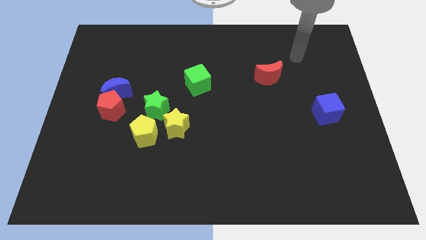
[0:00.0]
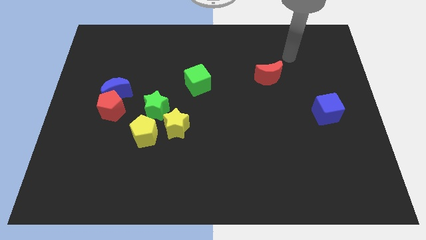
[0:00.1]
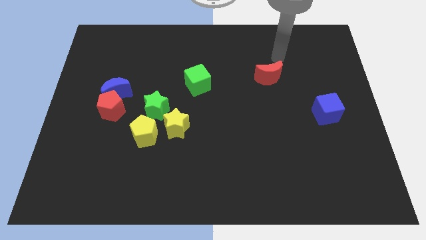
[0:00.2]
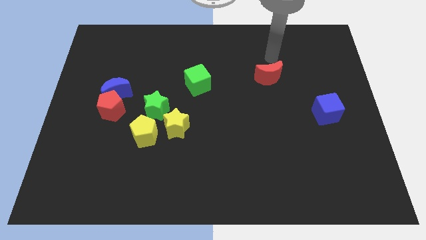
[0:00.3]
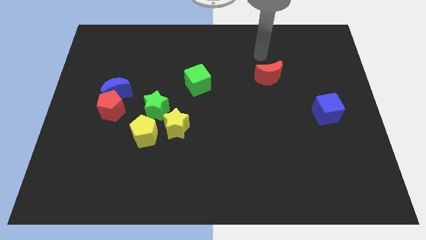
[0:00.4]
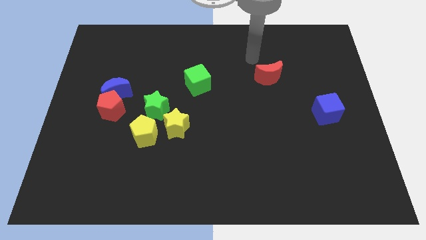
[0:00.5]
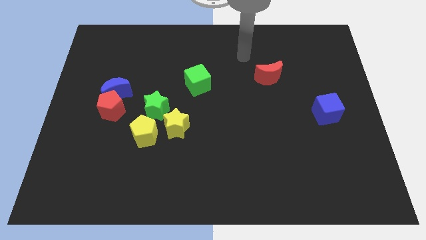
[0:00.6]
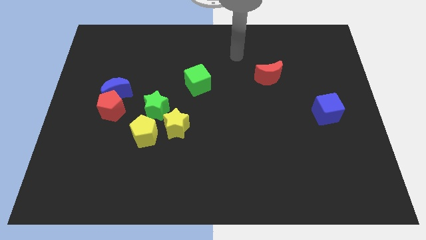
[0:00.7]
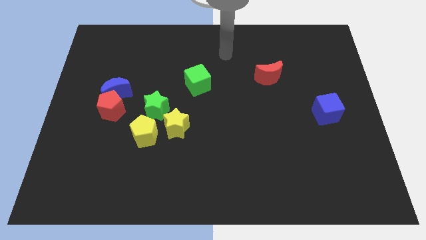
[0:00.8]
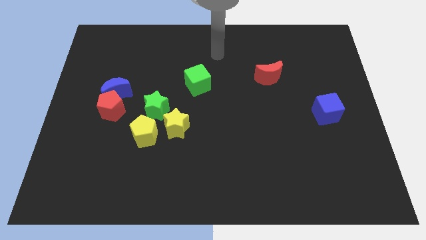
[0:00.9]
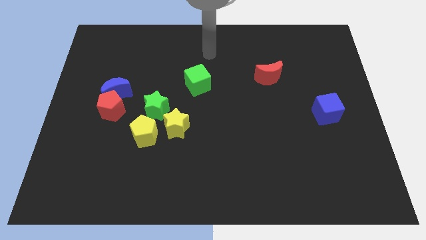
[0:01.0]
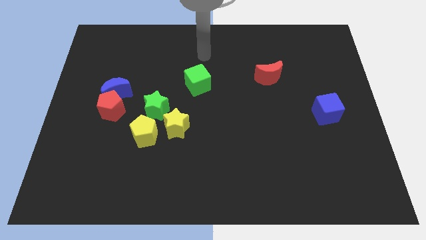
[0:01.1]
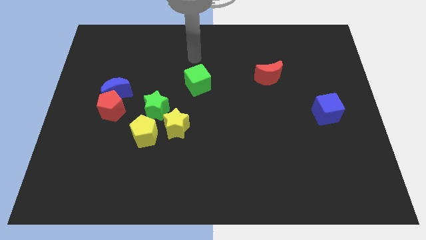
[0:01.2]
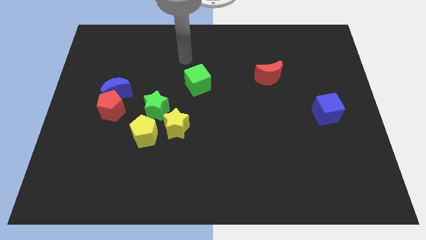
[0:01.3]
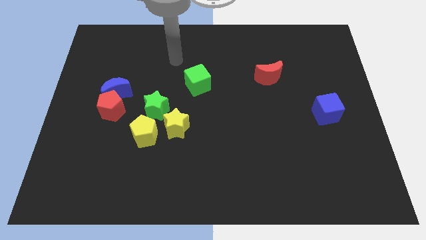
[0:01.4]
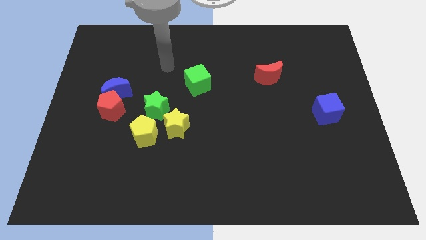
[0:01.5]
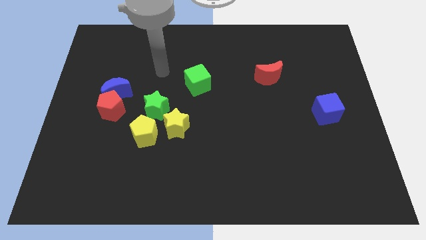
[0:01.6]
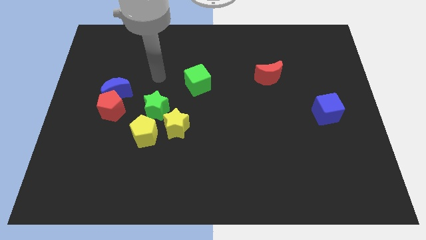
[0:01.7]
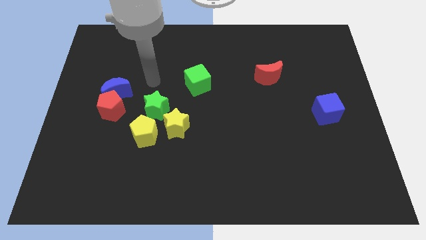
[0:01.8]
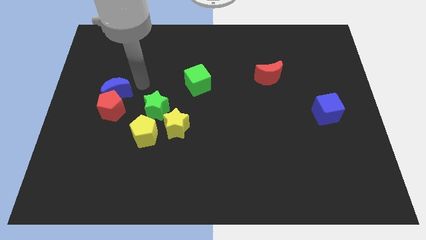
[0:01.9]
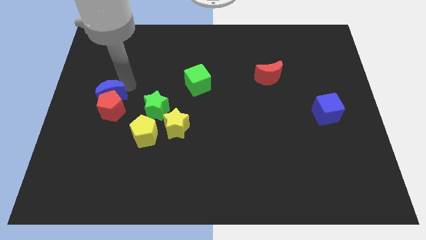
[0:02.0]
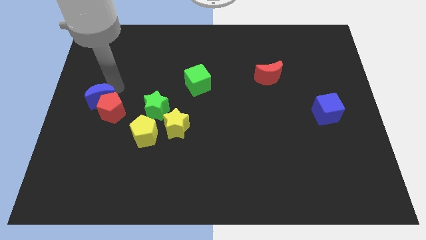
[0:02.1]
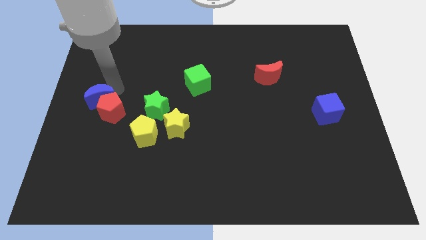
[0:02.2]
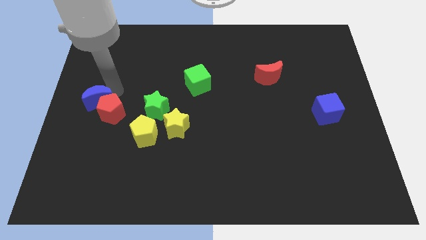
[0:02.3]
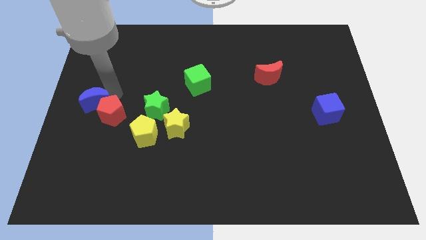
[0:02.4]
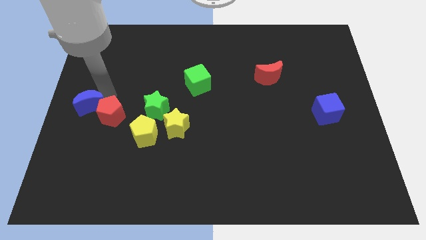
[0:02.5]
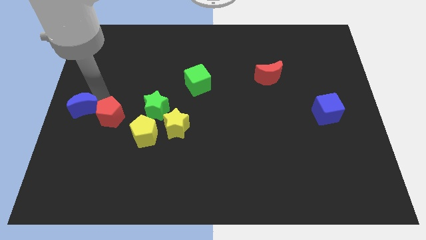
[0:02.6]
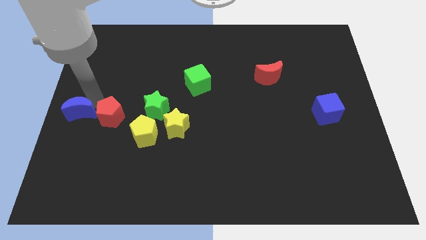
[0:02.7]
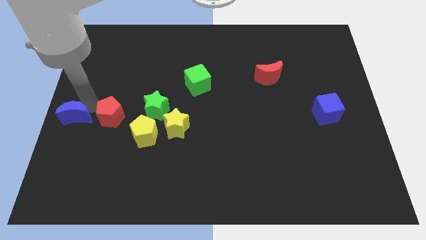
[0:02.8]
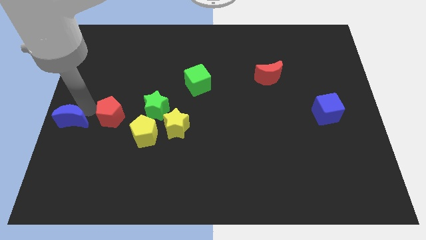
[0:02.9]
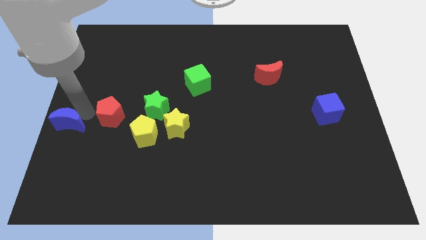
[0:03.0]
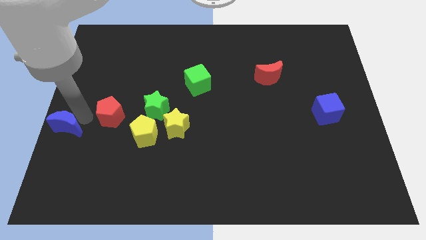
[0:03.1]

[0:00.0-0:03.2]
pull the red pentagon apart from the blue moon

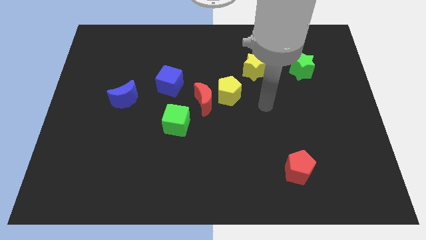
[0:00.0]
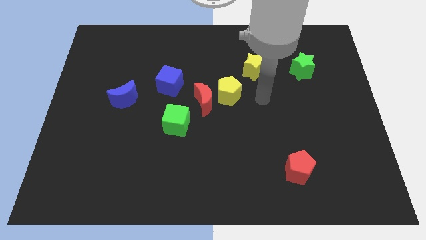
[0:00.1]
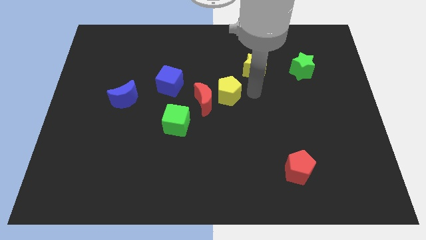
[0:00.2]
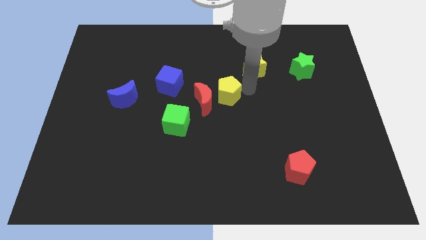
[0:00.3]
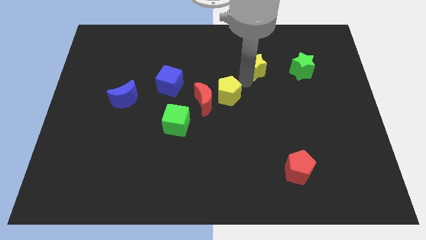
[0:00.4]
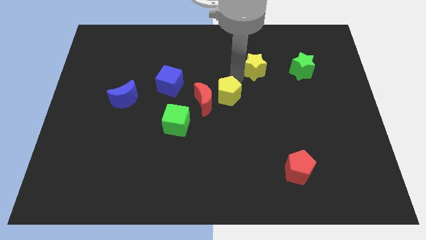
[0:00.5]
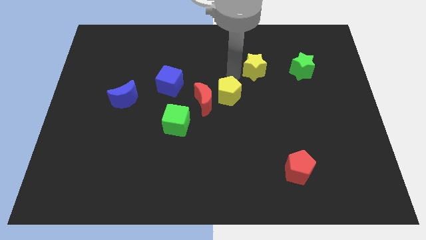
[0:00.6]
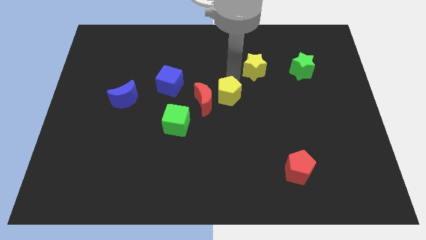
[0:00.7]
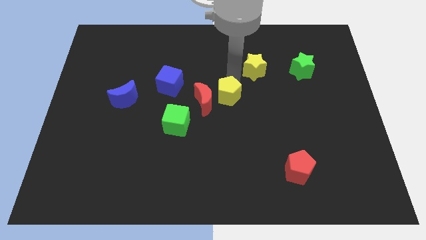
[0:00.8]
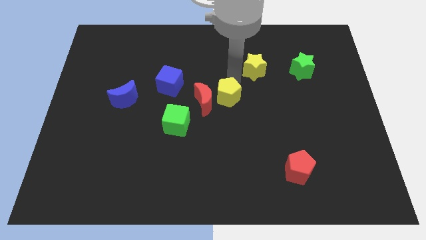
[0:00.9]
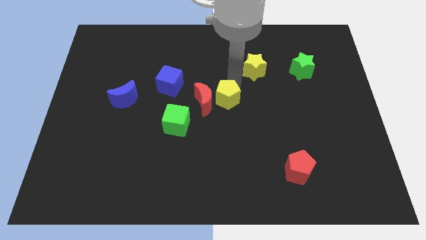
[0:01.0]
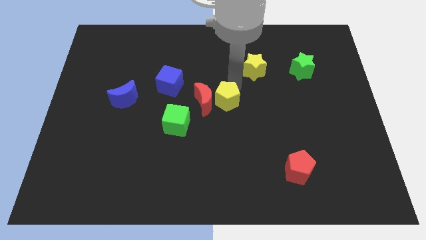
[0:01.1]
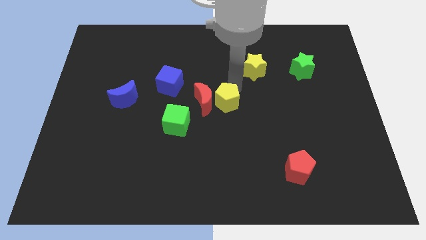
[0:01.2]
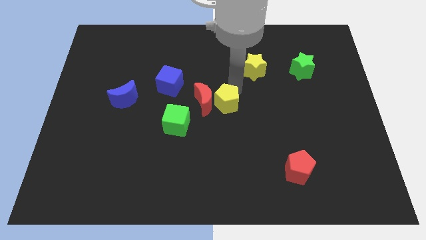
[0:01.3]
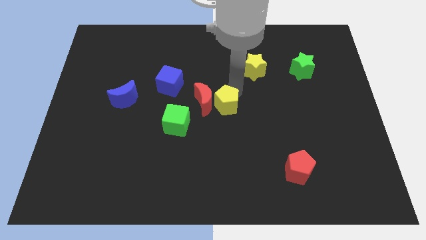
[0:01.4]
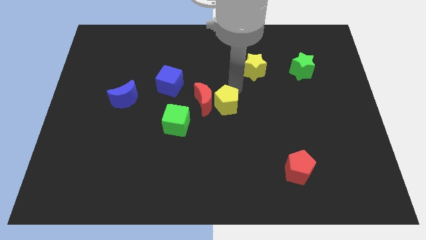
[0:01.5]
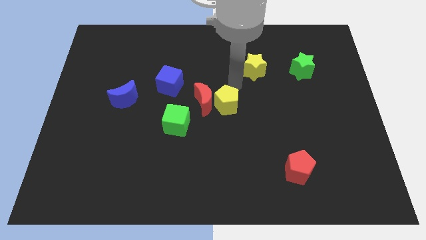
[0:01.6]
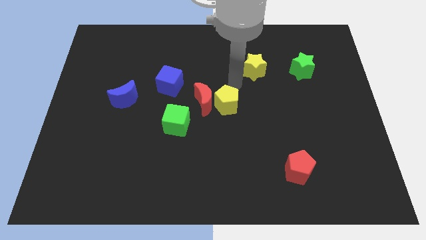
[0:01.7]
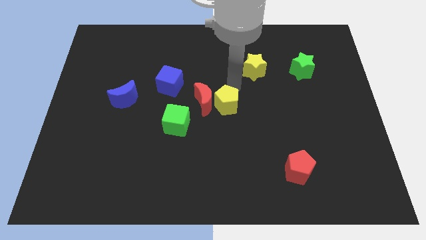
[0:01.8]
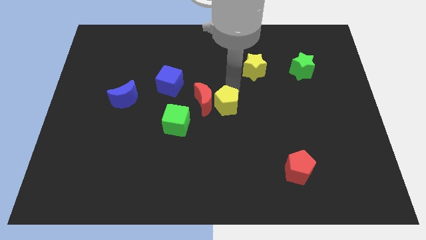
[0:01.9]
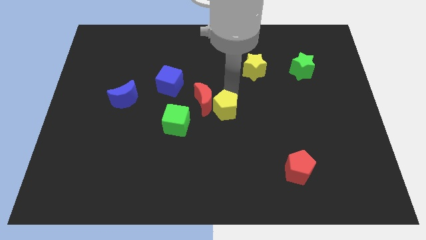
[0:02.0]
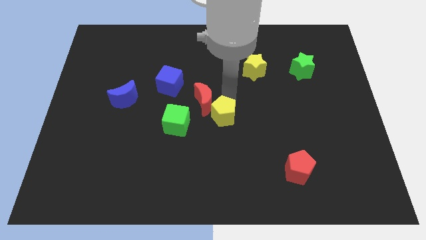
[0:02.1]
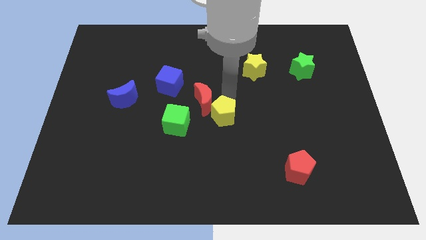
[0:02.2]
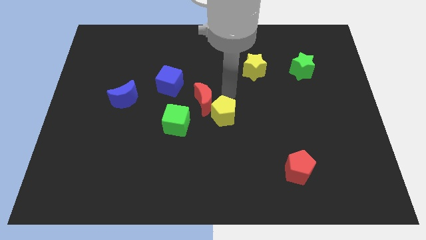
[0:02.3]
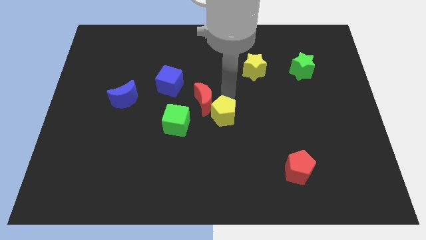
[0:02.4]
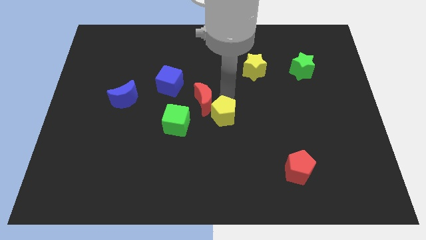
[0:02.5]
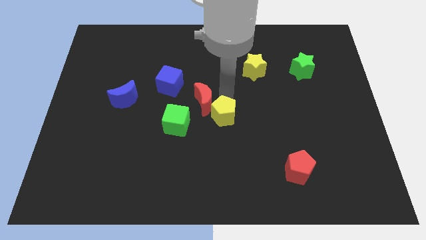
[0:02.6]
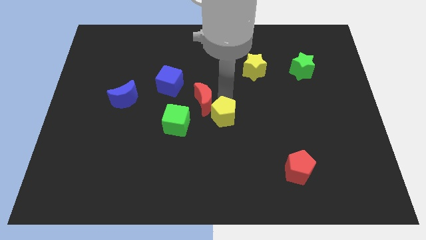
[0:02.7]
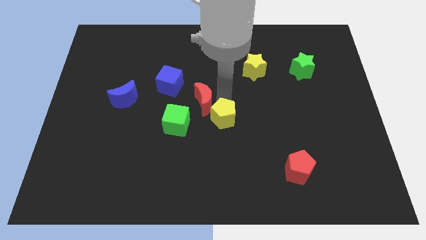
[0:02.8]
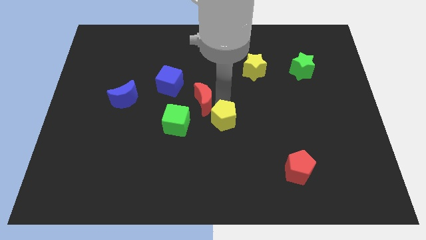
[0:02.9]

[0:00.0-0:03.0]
separate the yellow pentagon from the red moon and yellow star

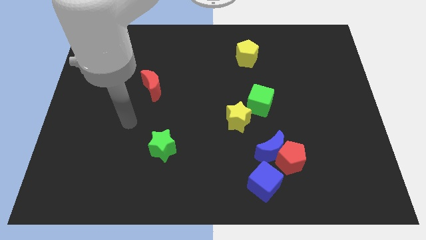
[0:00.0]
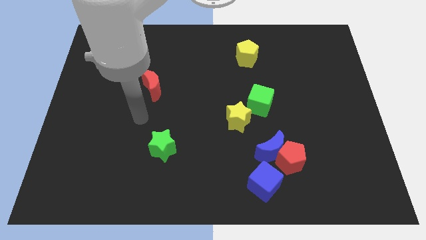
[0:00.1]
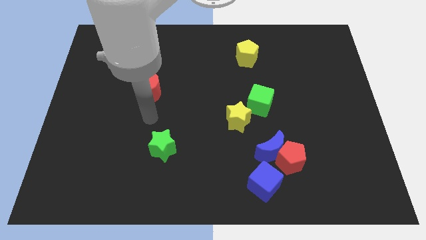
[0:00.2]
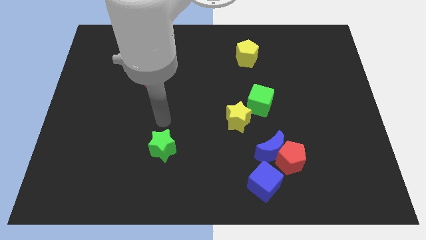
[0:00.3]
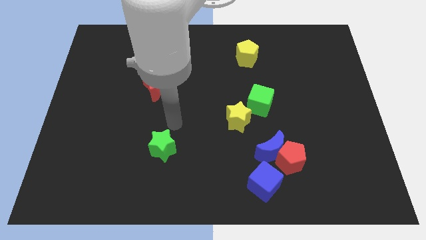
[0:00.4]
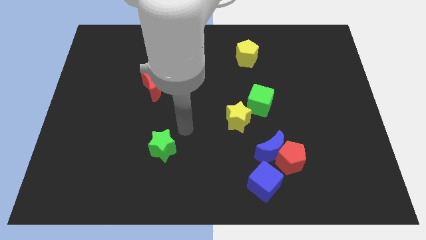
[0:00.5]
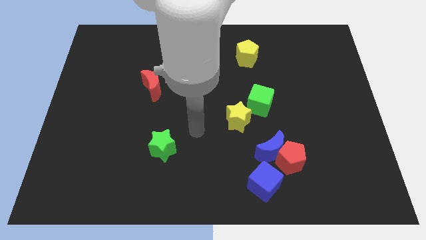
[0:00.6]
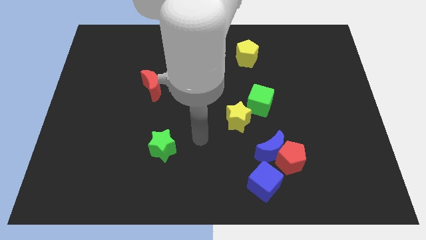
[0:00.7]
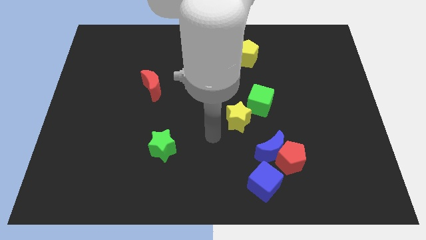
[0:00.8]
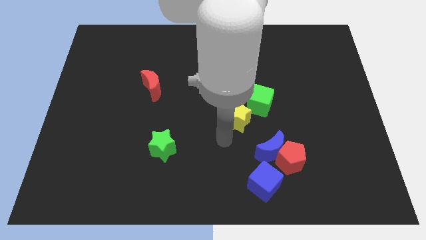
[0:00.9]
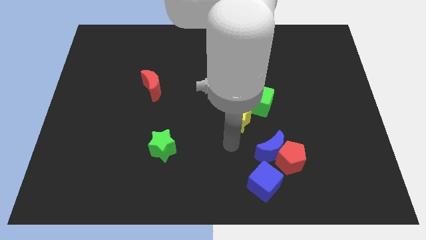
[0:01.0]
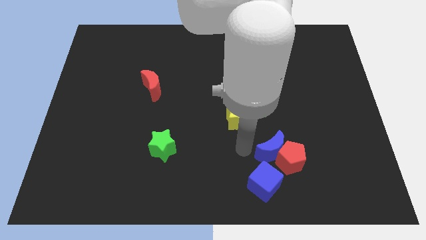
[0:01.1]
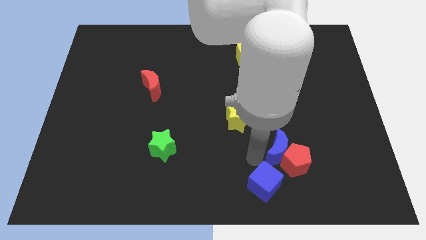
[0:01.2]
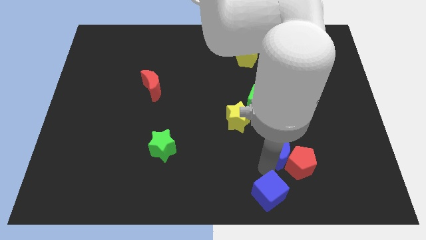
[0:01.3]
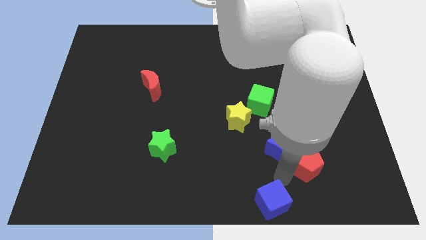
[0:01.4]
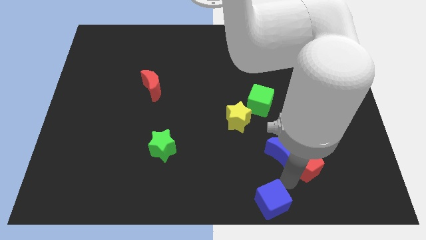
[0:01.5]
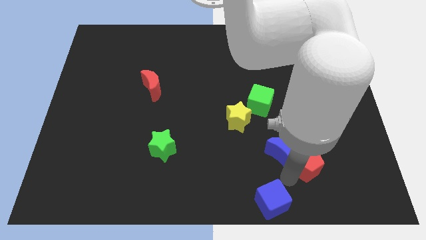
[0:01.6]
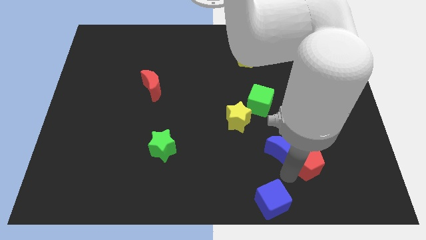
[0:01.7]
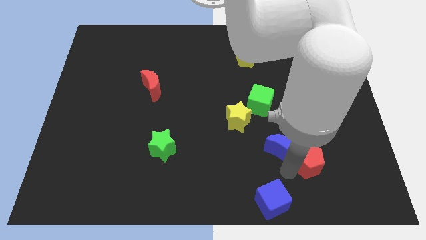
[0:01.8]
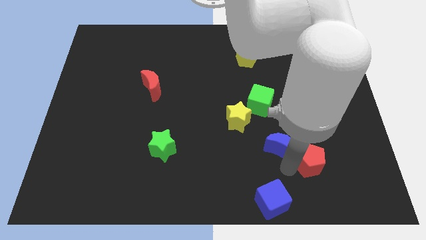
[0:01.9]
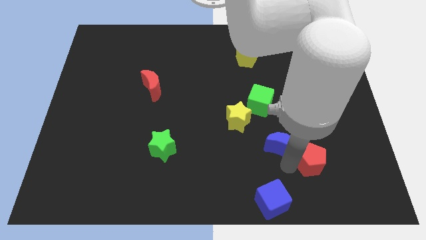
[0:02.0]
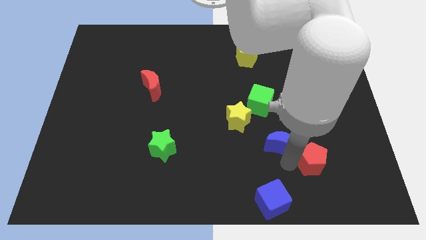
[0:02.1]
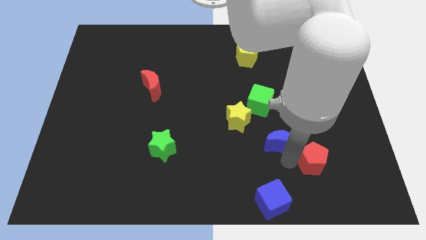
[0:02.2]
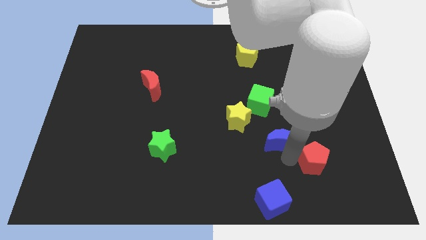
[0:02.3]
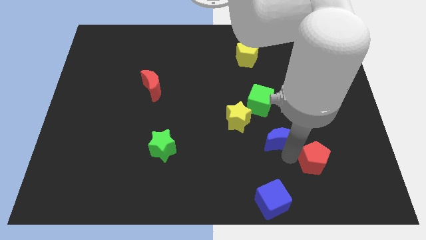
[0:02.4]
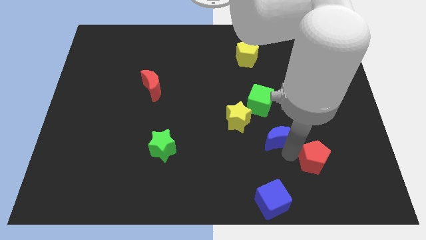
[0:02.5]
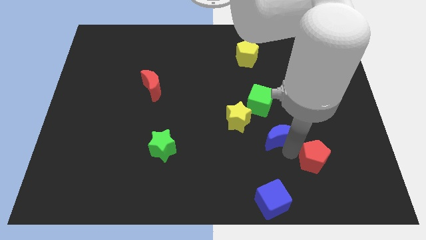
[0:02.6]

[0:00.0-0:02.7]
separate the blue moon from the red pentagon and blue cube

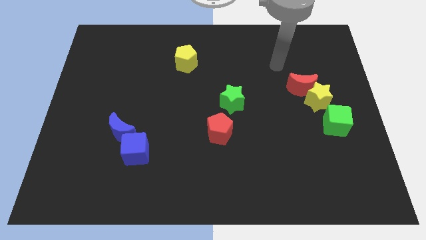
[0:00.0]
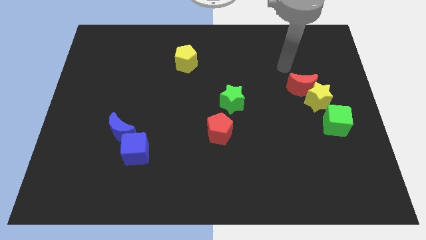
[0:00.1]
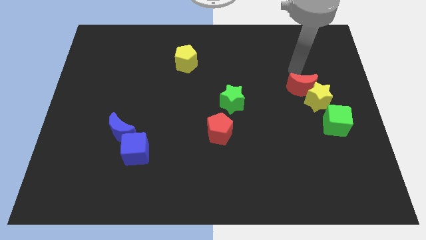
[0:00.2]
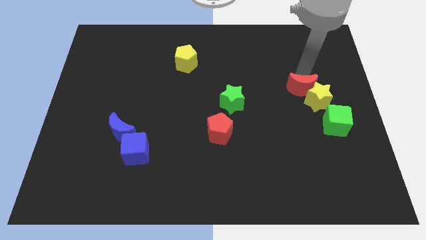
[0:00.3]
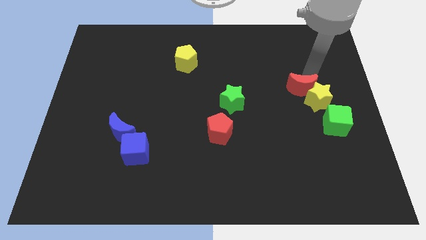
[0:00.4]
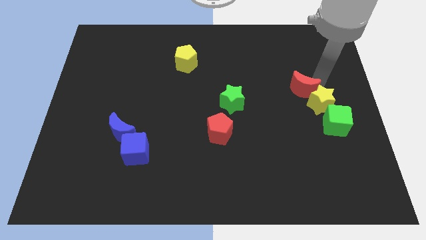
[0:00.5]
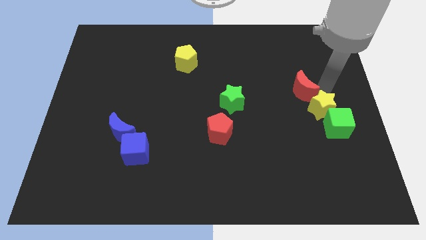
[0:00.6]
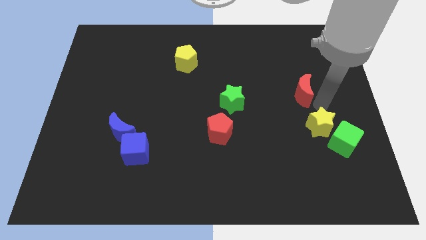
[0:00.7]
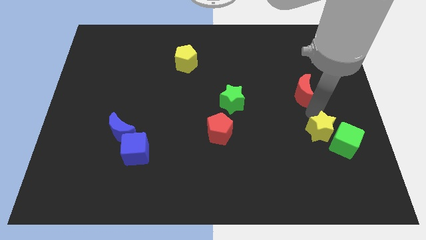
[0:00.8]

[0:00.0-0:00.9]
pull the red moon apart from the yellow star
